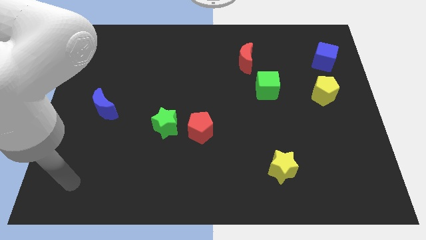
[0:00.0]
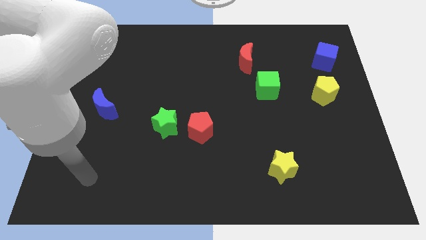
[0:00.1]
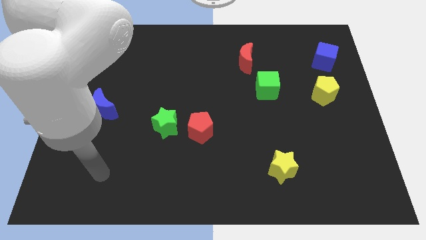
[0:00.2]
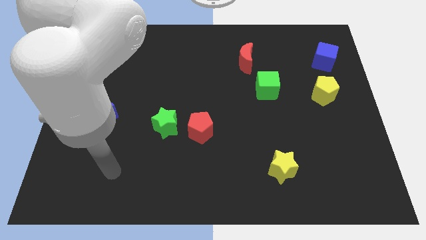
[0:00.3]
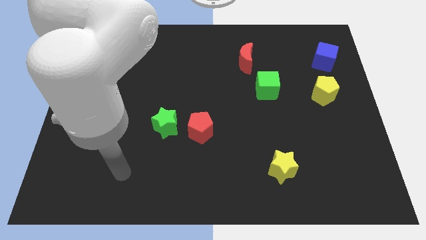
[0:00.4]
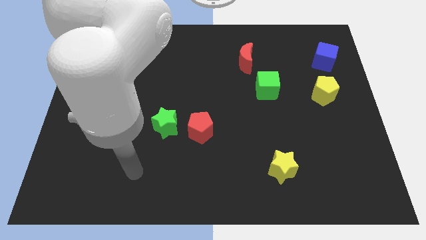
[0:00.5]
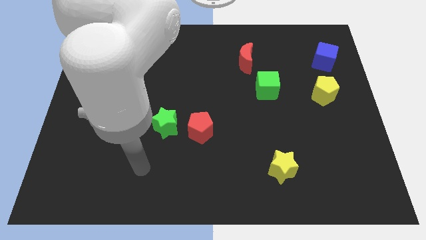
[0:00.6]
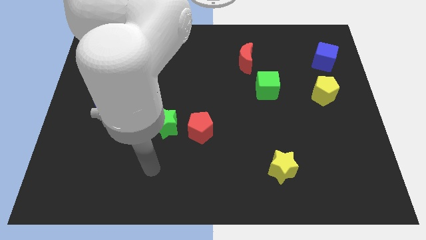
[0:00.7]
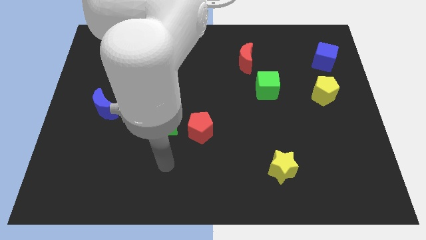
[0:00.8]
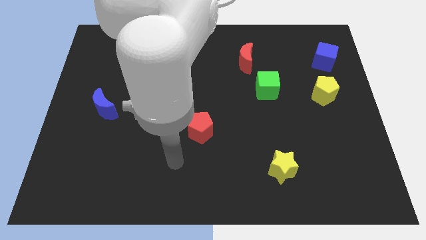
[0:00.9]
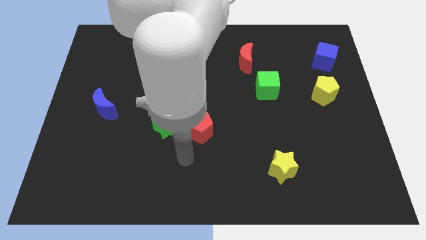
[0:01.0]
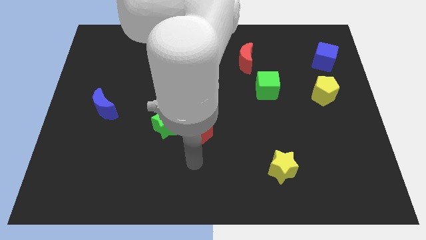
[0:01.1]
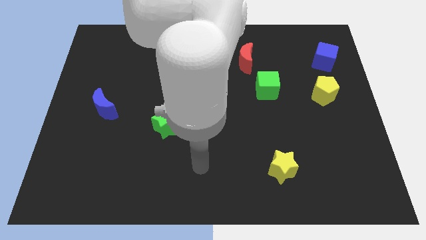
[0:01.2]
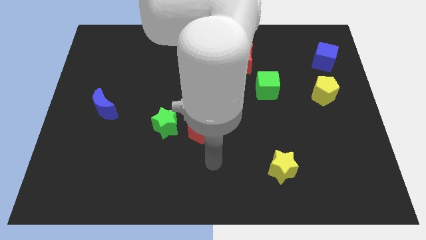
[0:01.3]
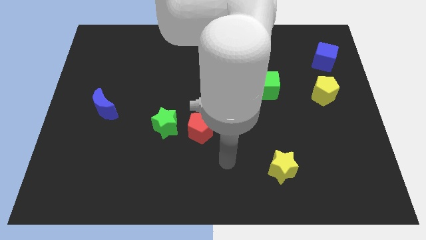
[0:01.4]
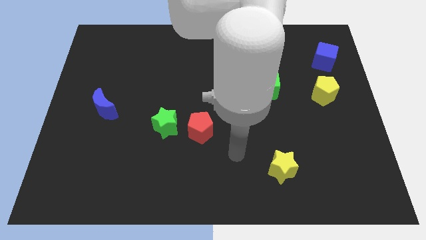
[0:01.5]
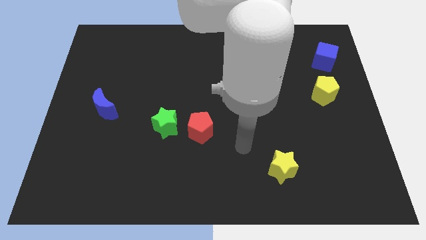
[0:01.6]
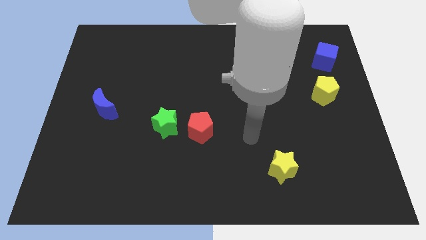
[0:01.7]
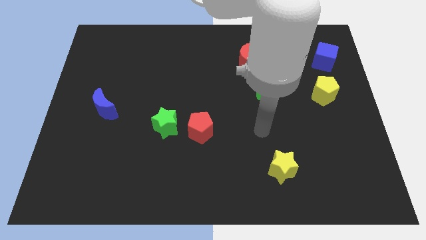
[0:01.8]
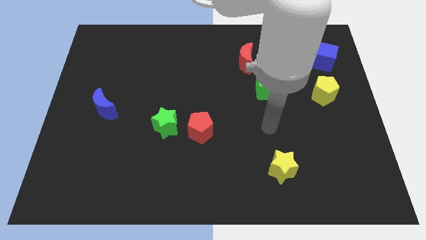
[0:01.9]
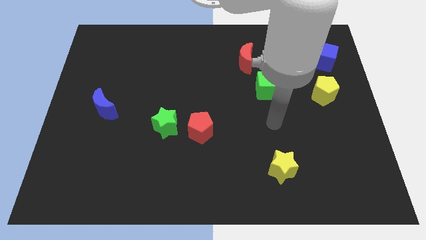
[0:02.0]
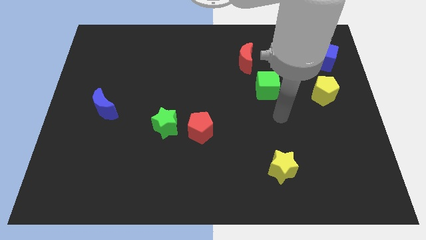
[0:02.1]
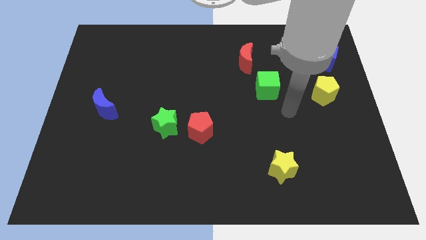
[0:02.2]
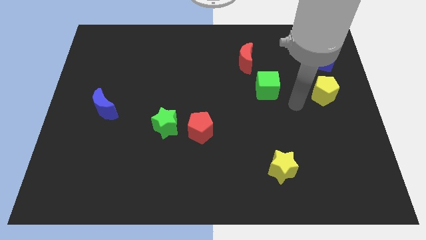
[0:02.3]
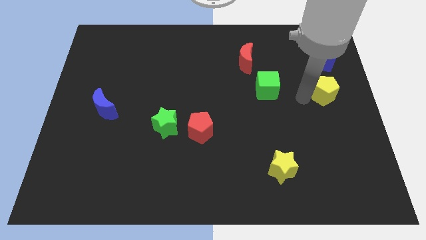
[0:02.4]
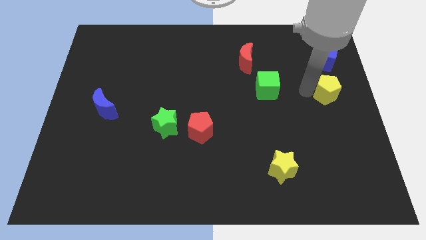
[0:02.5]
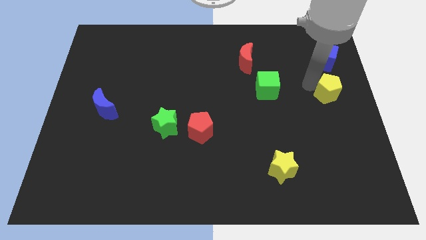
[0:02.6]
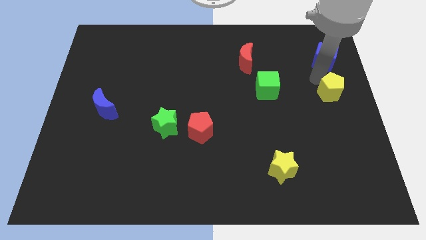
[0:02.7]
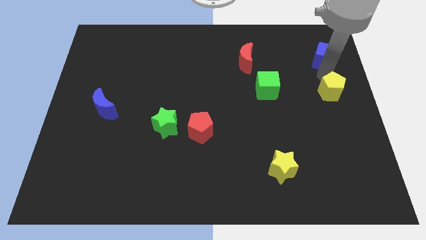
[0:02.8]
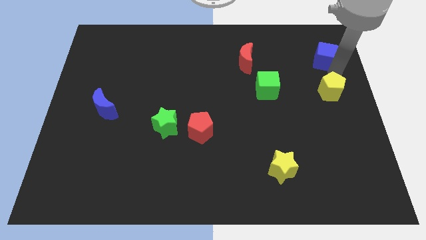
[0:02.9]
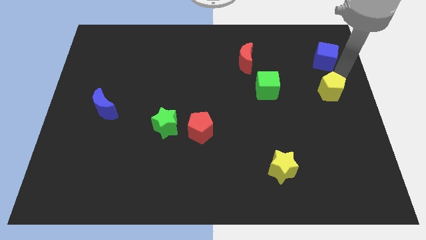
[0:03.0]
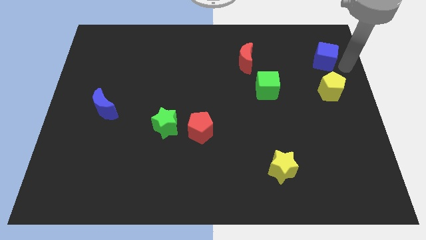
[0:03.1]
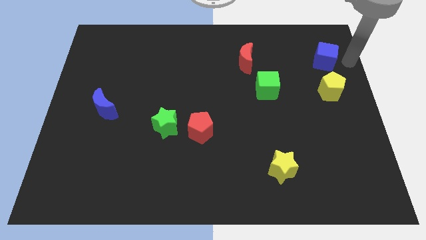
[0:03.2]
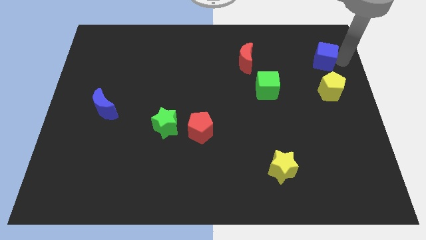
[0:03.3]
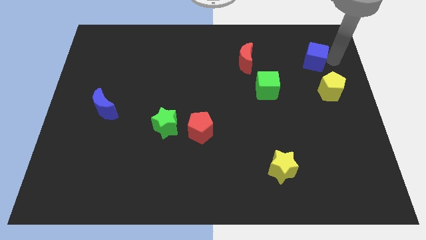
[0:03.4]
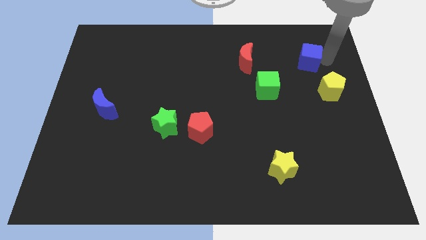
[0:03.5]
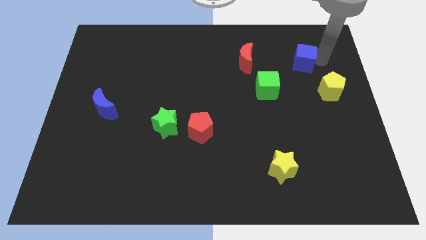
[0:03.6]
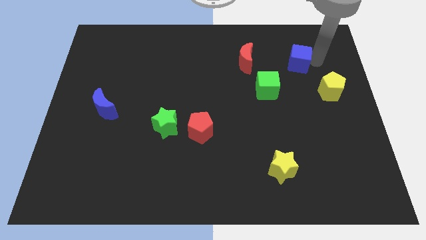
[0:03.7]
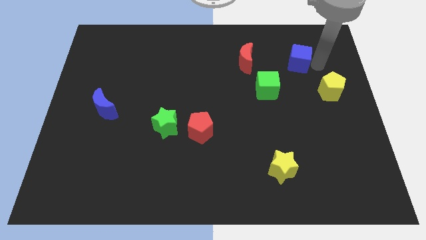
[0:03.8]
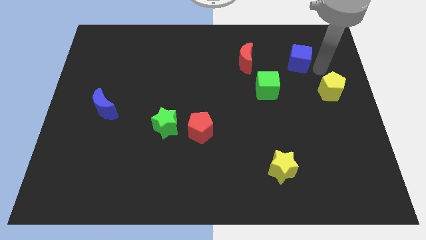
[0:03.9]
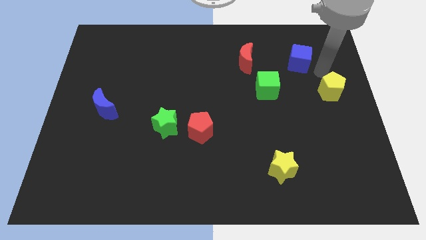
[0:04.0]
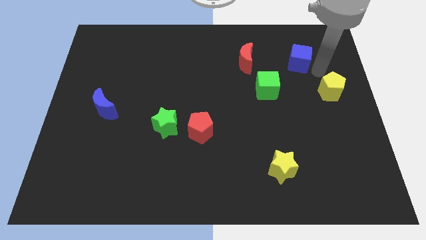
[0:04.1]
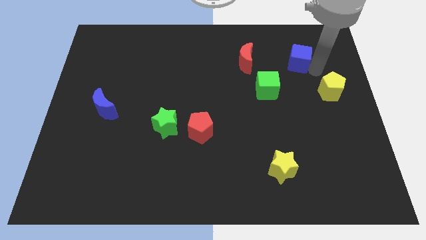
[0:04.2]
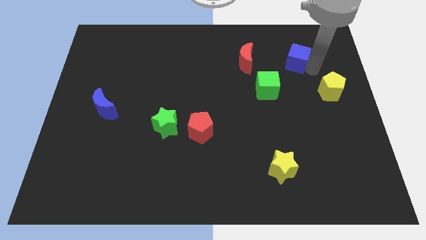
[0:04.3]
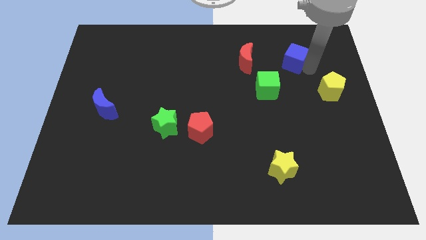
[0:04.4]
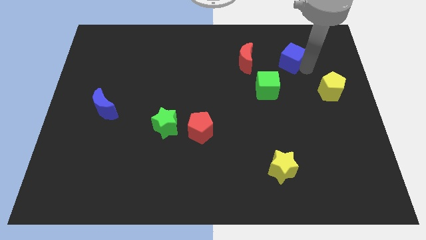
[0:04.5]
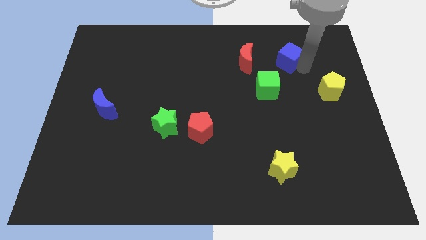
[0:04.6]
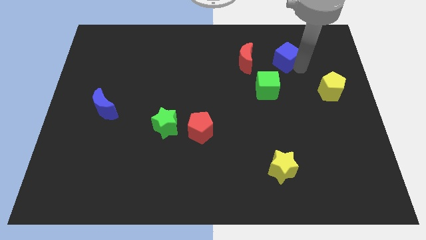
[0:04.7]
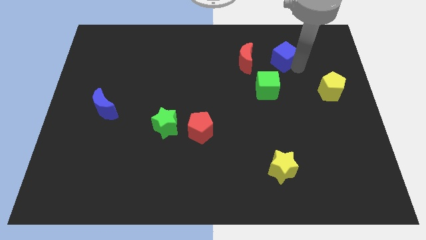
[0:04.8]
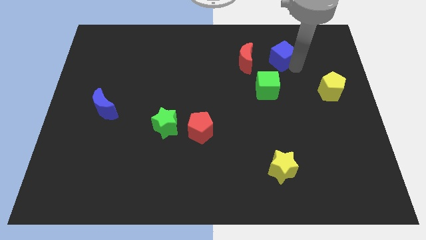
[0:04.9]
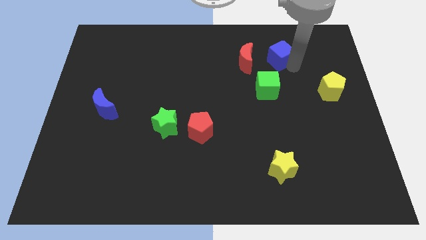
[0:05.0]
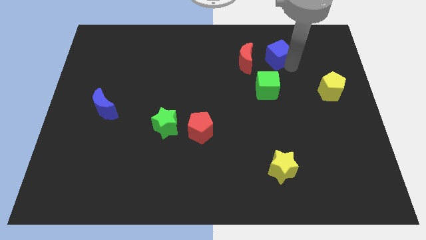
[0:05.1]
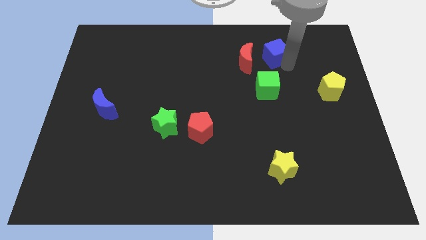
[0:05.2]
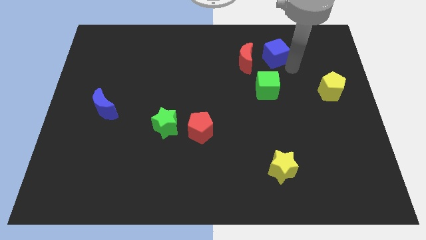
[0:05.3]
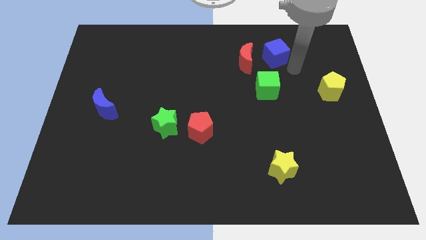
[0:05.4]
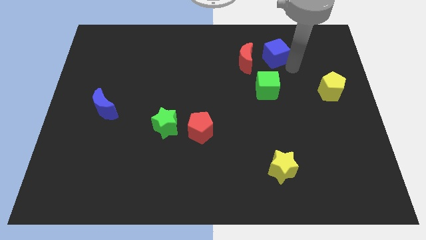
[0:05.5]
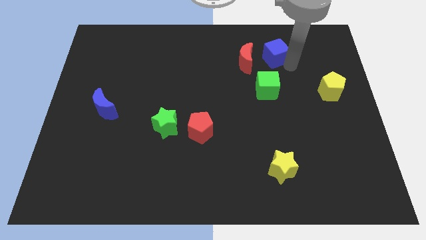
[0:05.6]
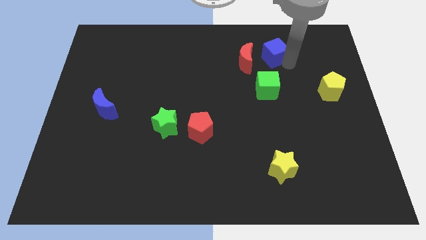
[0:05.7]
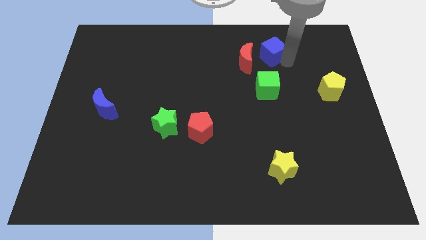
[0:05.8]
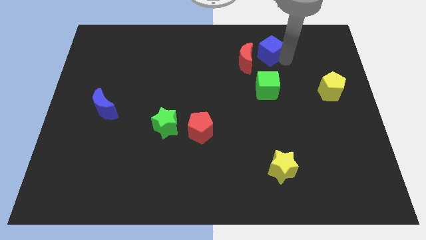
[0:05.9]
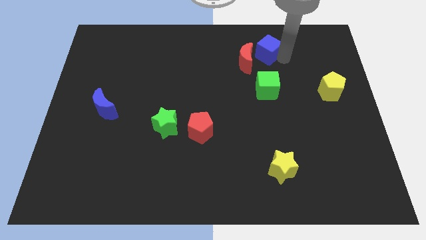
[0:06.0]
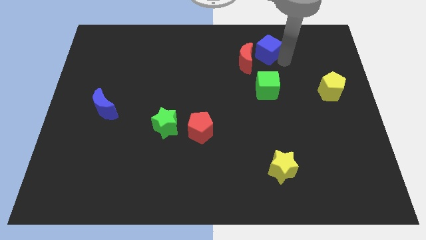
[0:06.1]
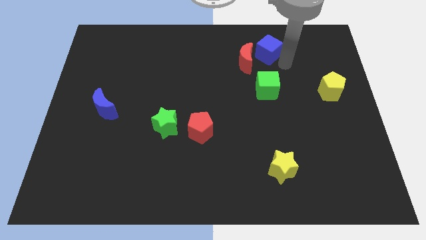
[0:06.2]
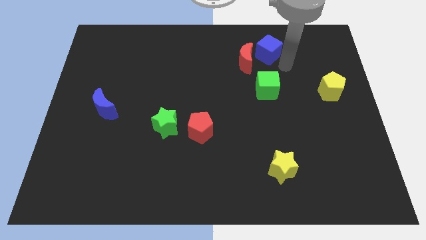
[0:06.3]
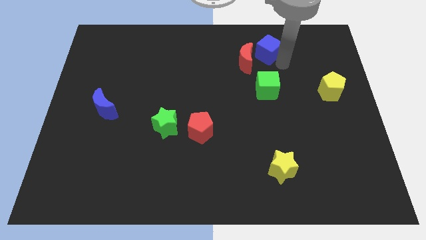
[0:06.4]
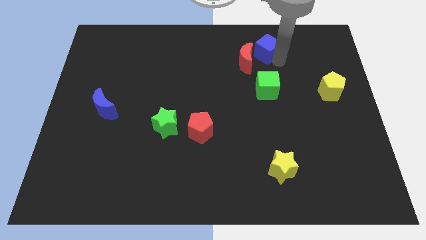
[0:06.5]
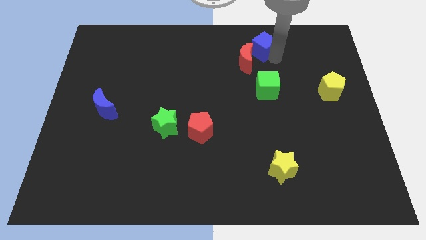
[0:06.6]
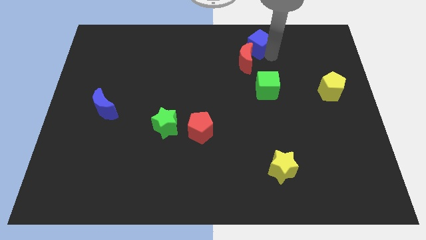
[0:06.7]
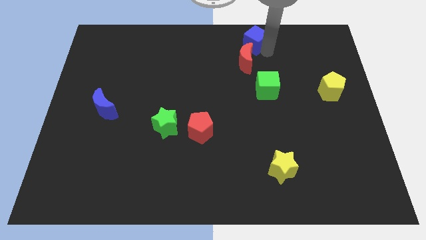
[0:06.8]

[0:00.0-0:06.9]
slide the blue cube to the top
